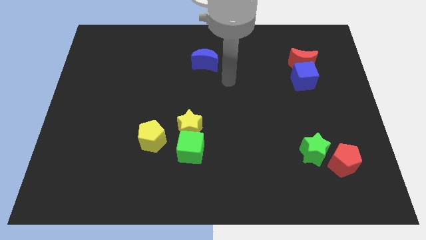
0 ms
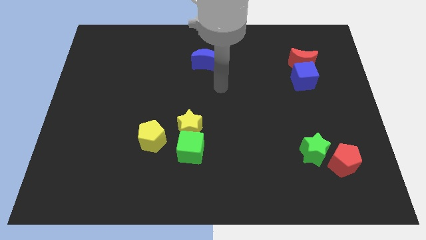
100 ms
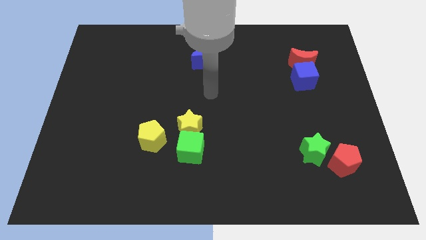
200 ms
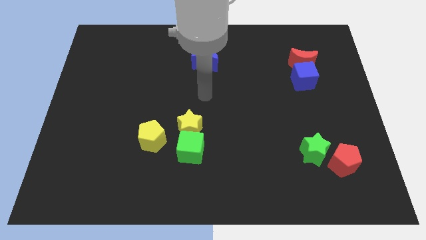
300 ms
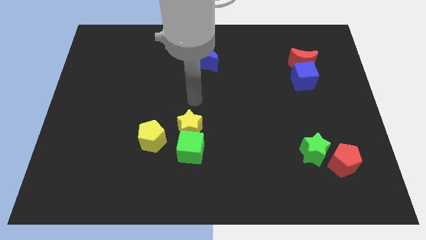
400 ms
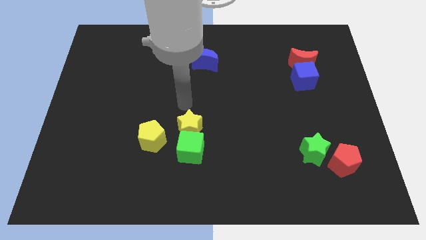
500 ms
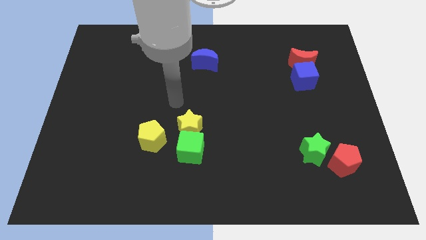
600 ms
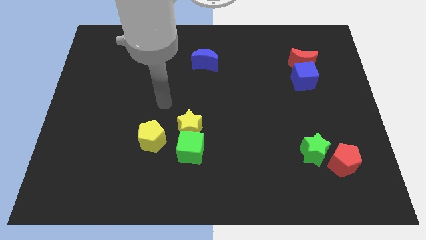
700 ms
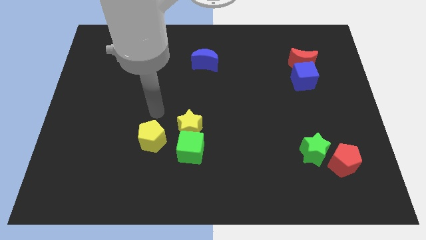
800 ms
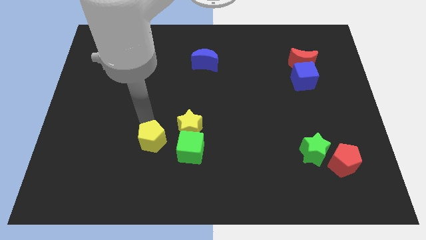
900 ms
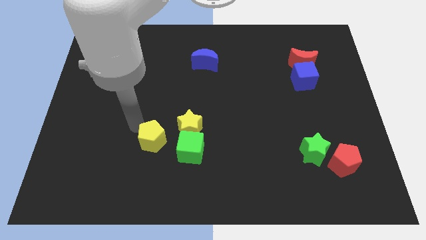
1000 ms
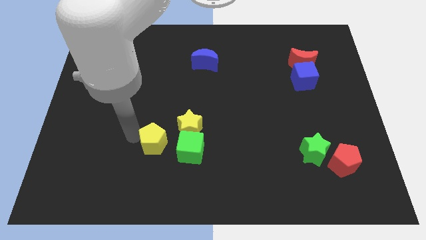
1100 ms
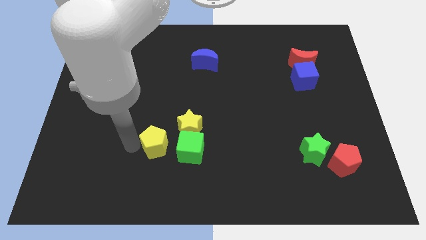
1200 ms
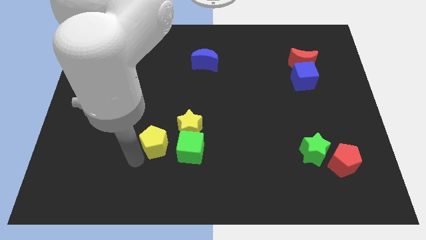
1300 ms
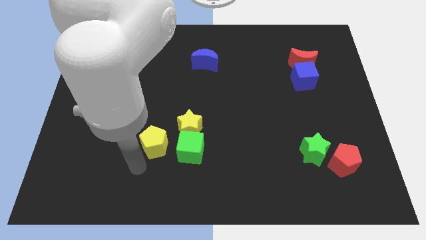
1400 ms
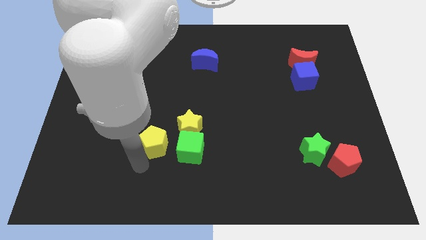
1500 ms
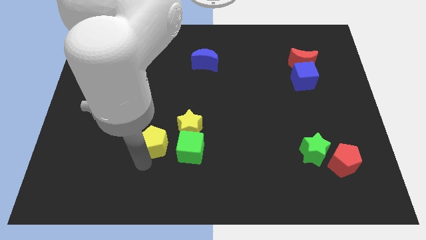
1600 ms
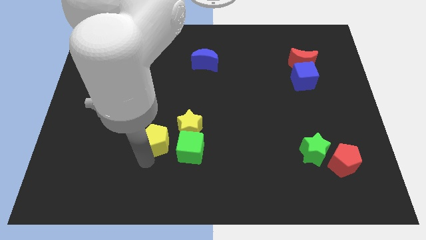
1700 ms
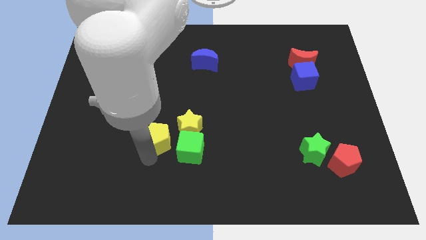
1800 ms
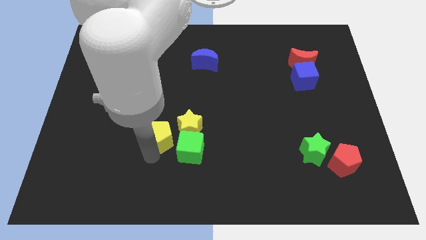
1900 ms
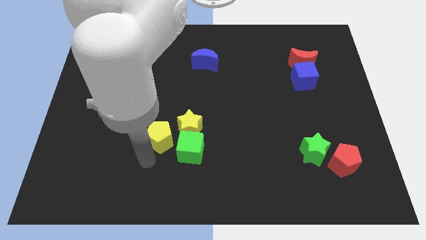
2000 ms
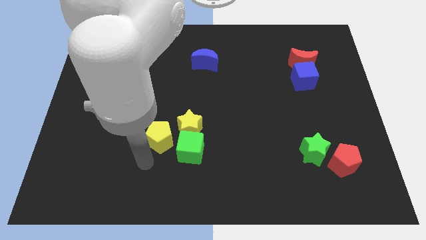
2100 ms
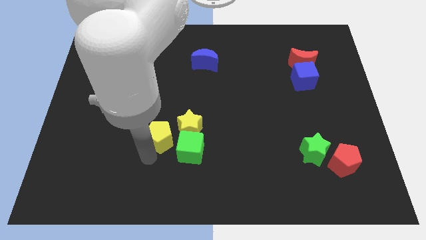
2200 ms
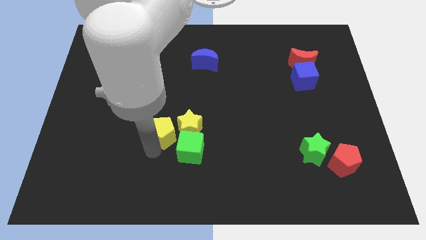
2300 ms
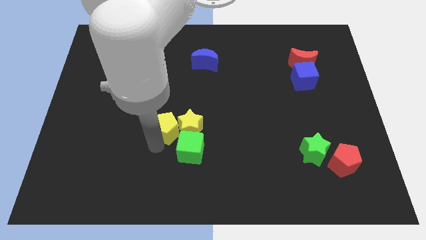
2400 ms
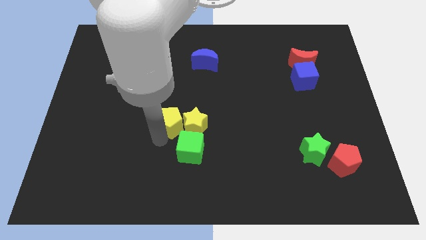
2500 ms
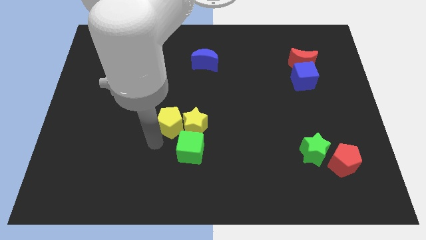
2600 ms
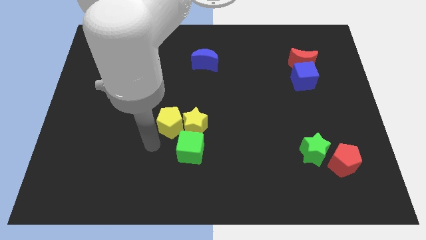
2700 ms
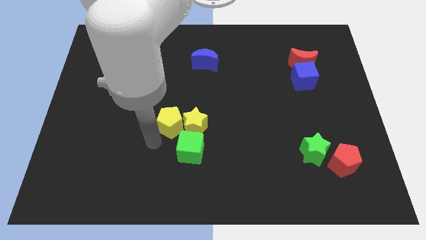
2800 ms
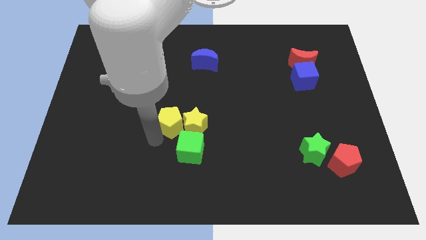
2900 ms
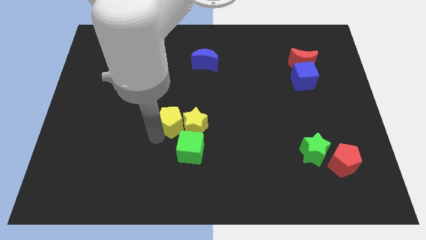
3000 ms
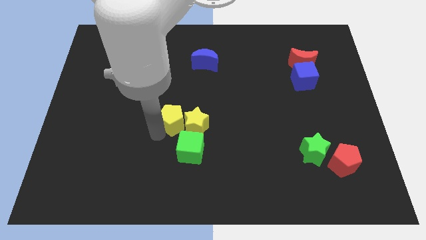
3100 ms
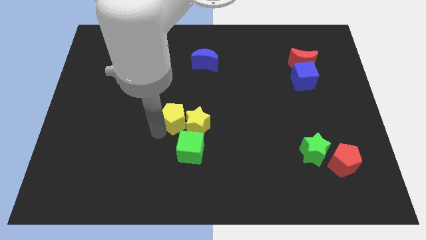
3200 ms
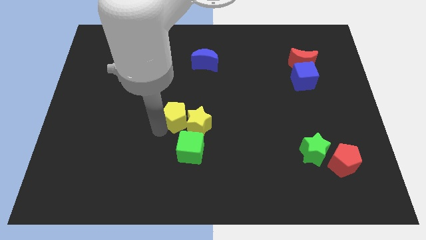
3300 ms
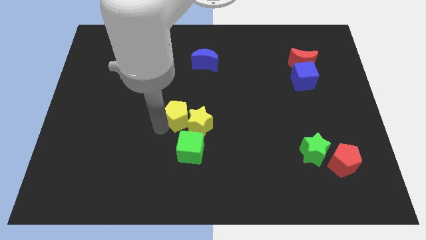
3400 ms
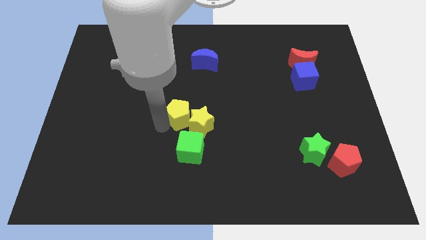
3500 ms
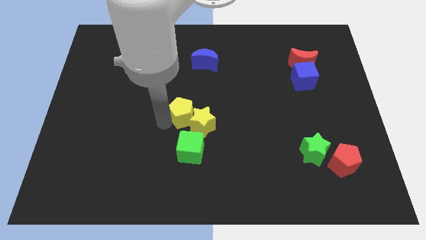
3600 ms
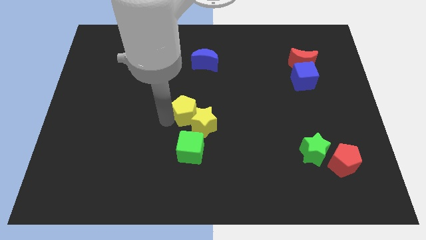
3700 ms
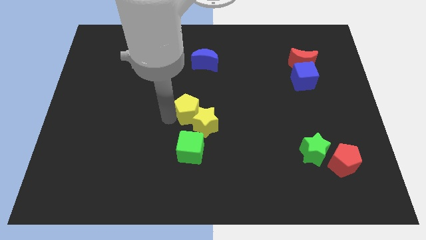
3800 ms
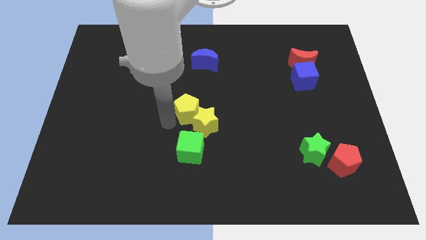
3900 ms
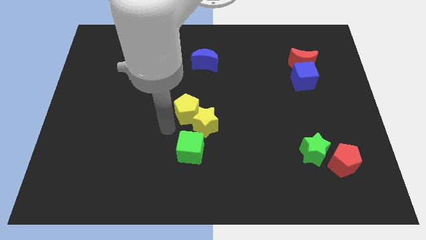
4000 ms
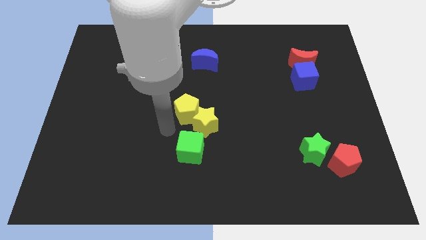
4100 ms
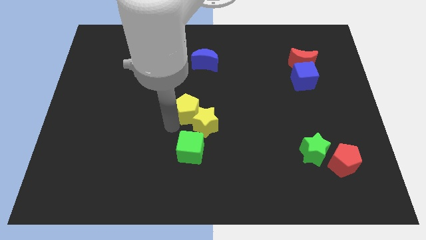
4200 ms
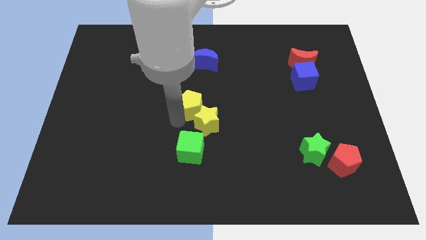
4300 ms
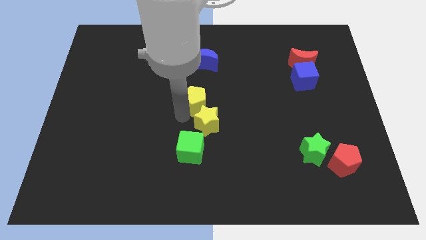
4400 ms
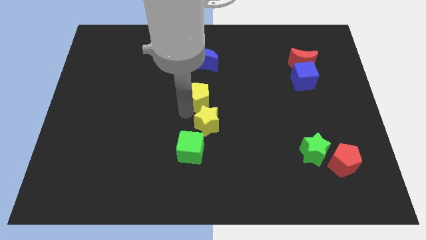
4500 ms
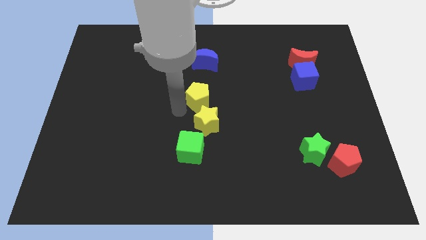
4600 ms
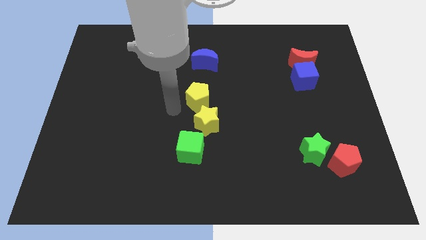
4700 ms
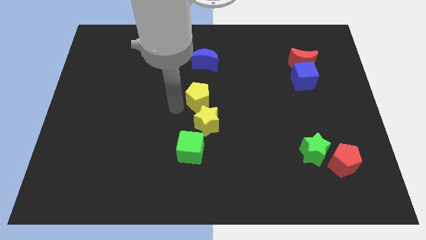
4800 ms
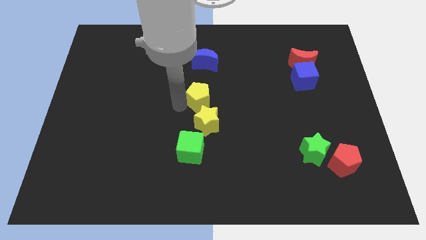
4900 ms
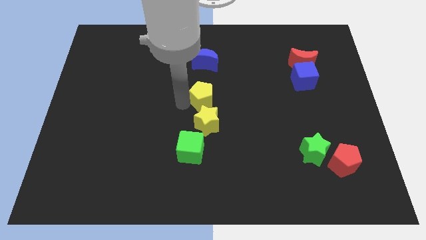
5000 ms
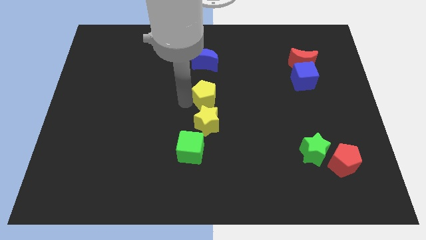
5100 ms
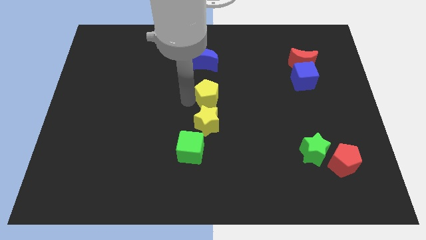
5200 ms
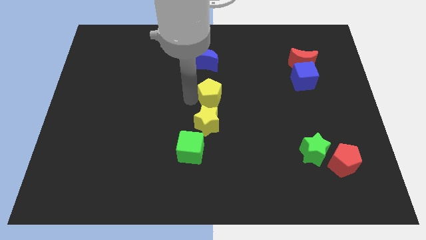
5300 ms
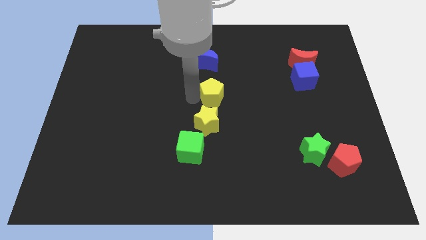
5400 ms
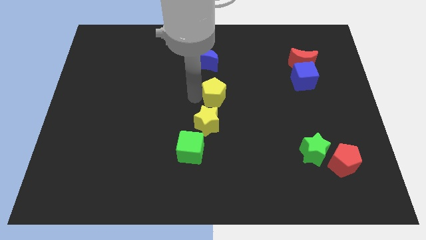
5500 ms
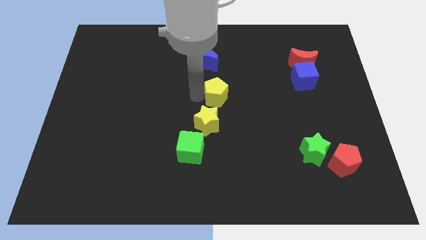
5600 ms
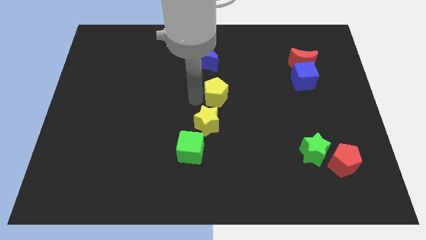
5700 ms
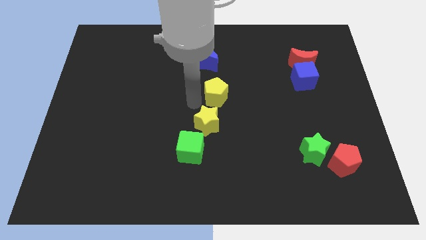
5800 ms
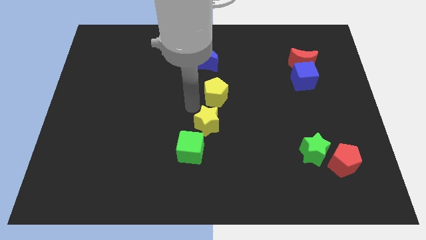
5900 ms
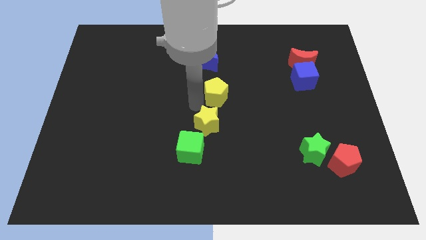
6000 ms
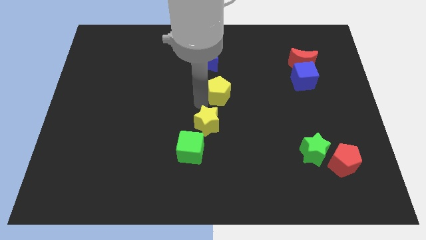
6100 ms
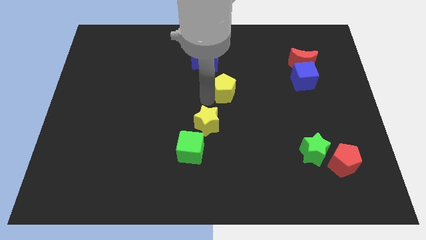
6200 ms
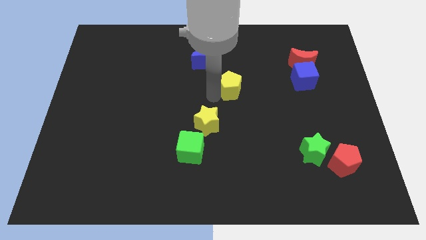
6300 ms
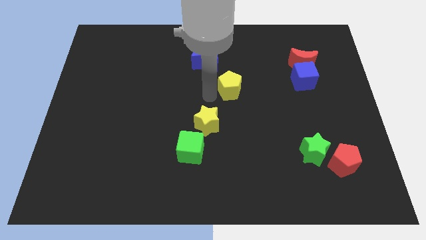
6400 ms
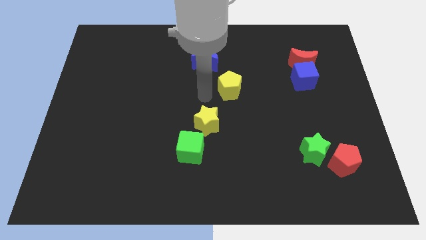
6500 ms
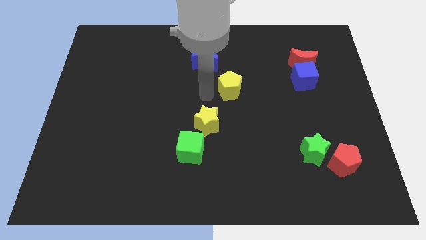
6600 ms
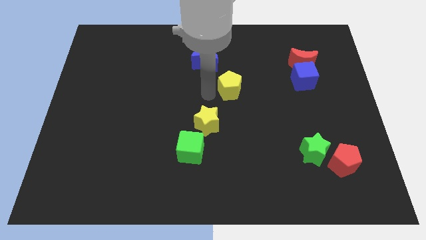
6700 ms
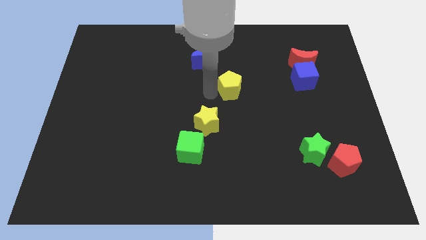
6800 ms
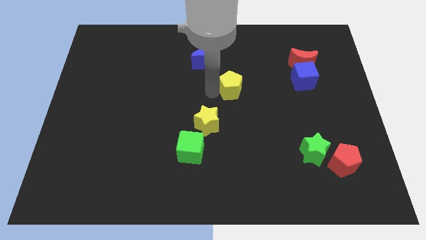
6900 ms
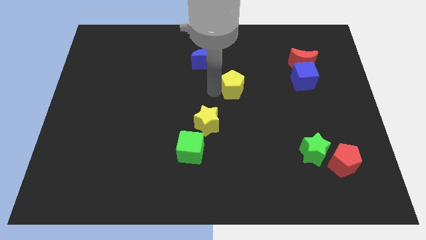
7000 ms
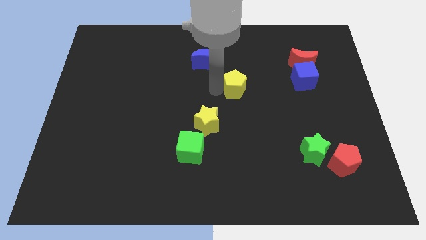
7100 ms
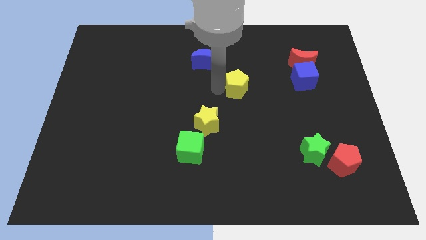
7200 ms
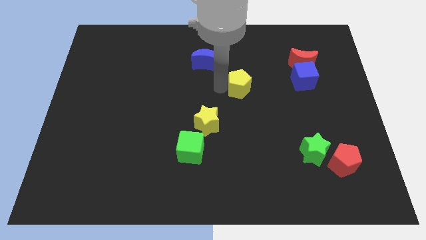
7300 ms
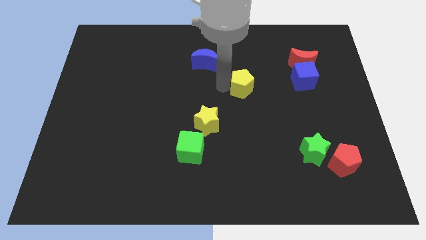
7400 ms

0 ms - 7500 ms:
put the yellow pentagon to the left side of the blue cube
